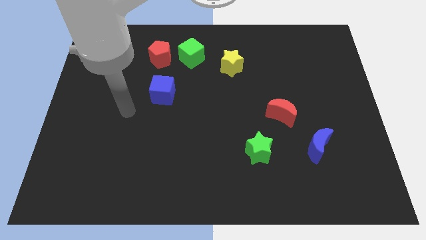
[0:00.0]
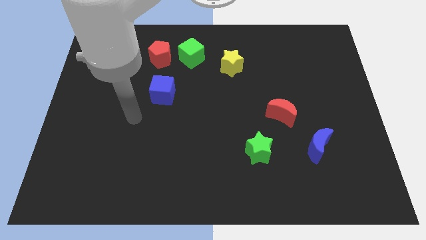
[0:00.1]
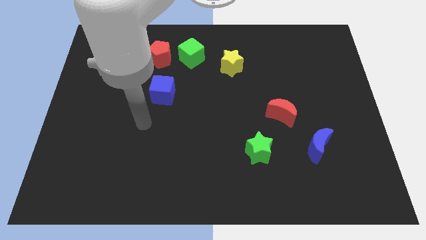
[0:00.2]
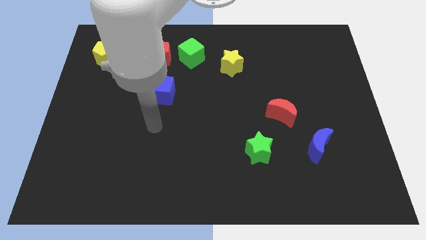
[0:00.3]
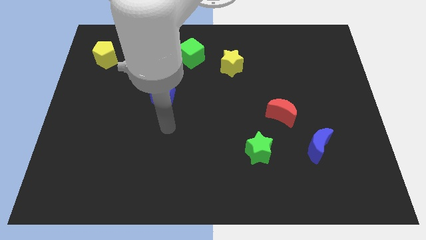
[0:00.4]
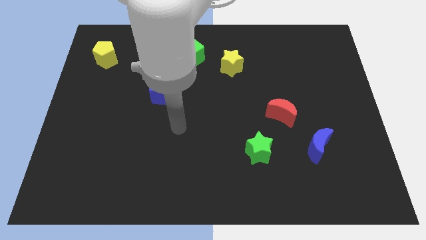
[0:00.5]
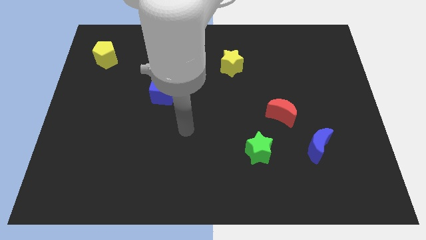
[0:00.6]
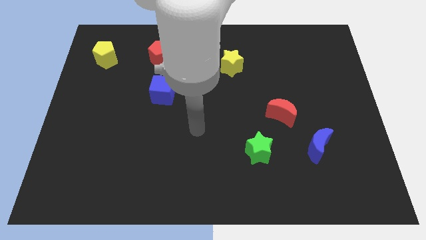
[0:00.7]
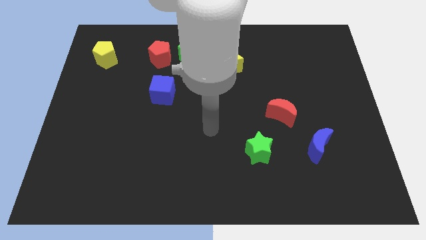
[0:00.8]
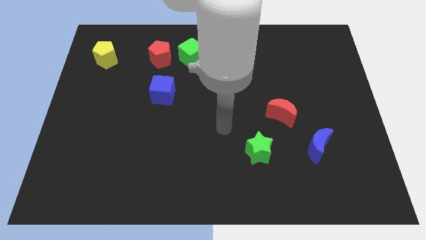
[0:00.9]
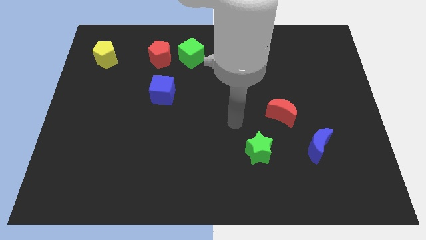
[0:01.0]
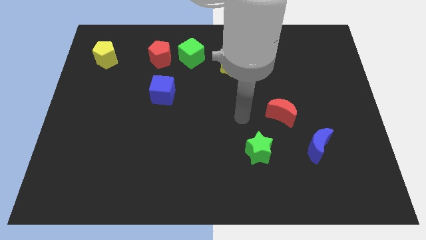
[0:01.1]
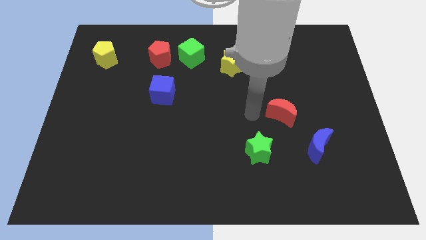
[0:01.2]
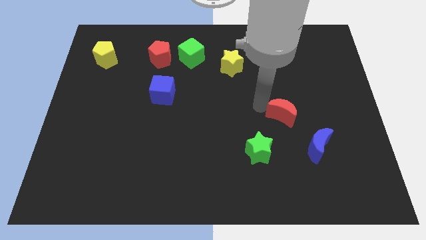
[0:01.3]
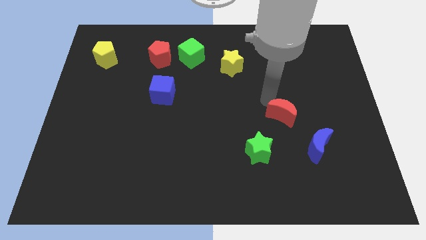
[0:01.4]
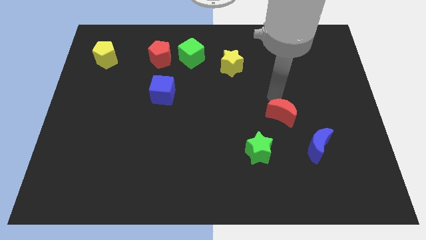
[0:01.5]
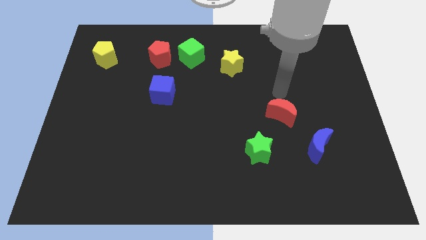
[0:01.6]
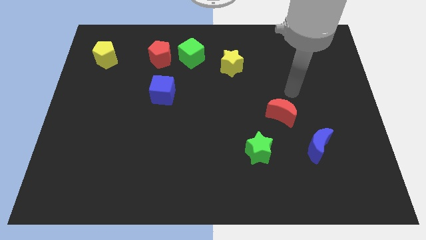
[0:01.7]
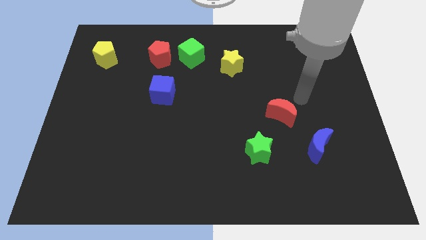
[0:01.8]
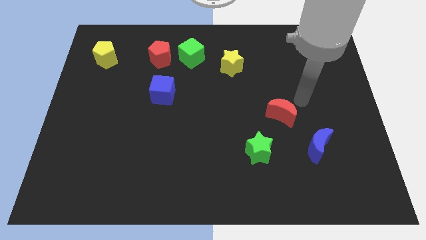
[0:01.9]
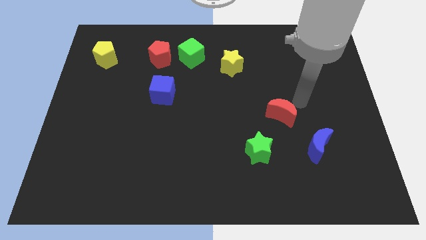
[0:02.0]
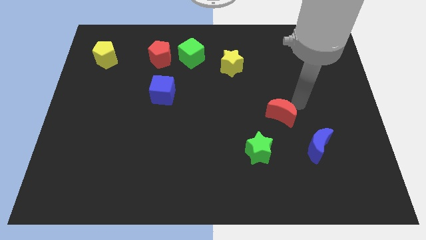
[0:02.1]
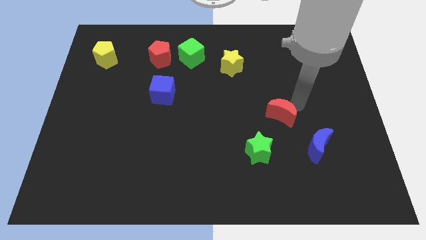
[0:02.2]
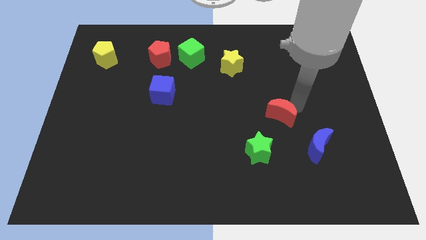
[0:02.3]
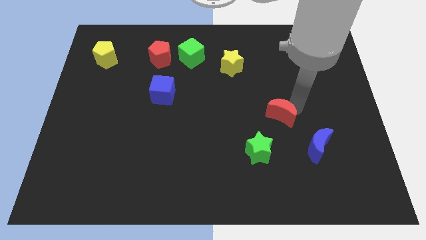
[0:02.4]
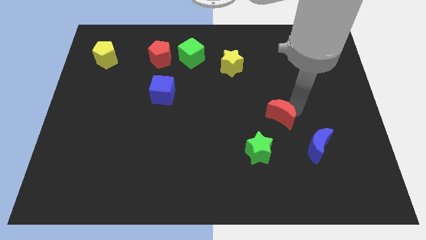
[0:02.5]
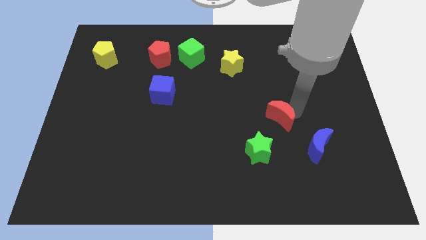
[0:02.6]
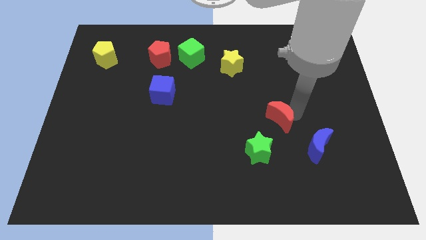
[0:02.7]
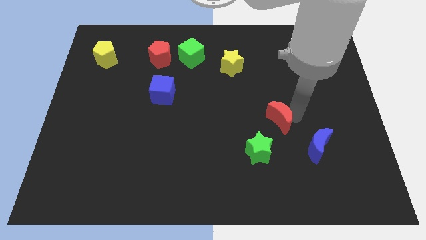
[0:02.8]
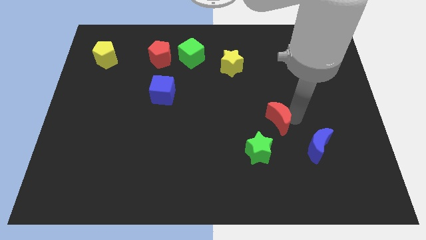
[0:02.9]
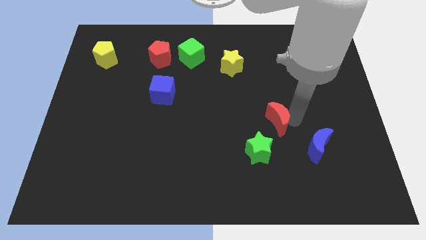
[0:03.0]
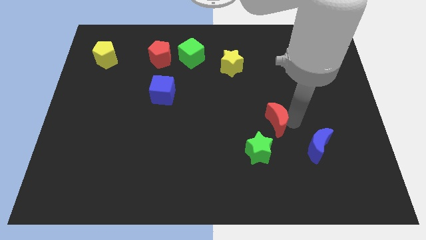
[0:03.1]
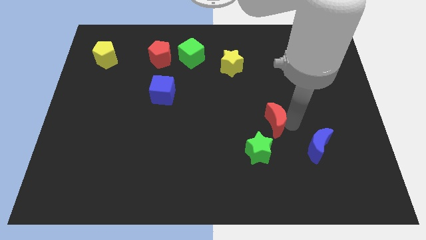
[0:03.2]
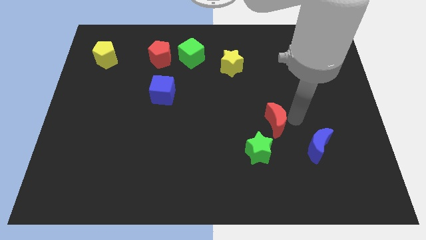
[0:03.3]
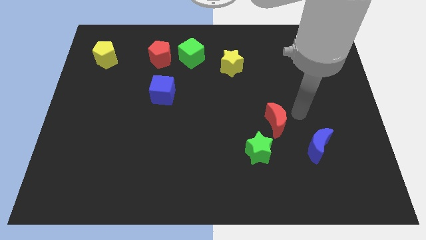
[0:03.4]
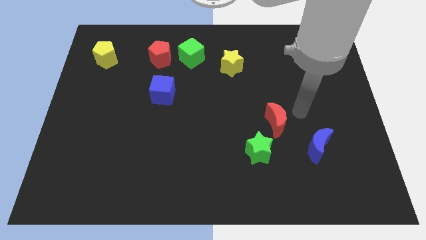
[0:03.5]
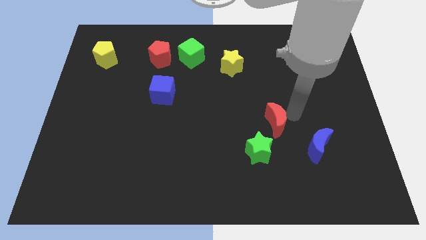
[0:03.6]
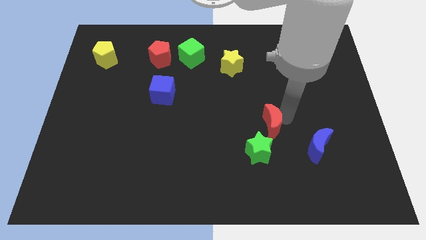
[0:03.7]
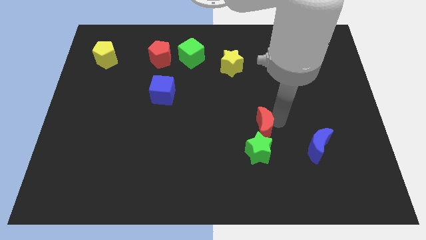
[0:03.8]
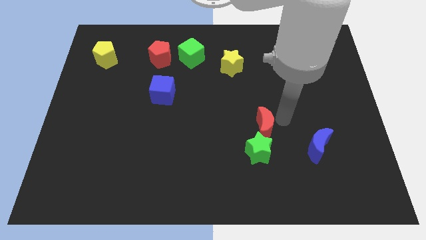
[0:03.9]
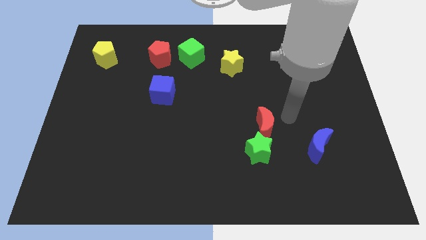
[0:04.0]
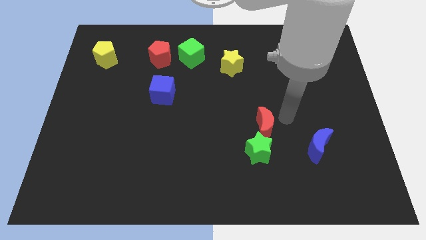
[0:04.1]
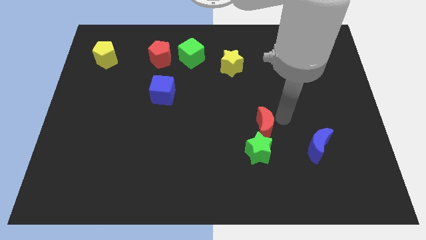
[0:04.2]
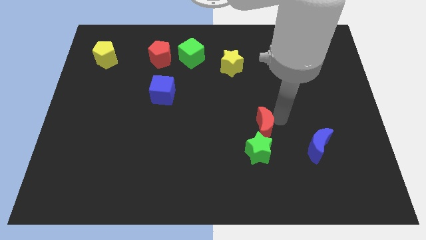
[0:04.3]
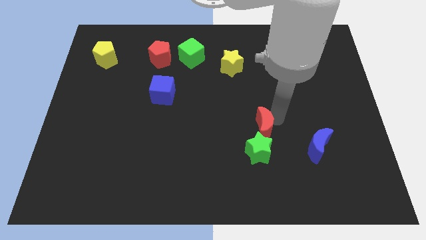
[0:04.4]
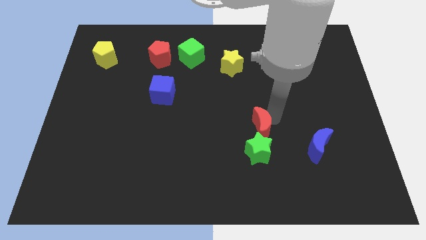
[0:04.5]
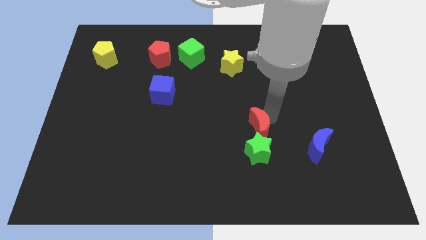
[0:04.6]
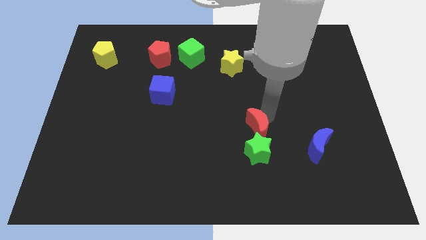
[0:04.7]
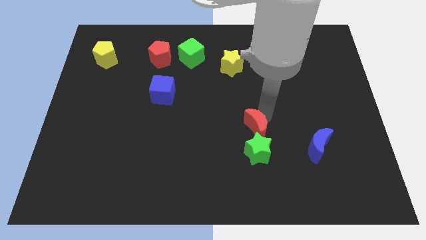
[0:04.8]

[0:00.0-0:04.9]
push the red moon diagonally downwards and to the left somewhat

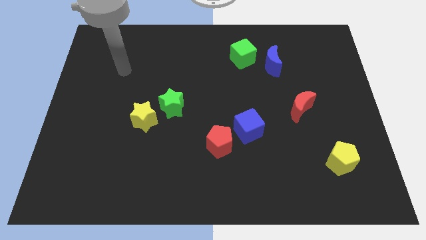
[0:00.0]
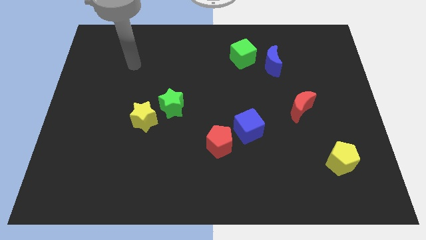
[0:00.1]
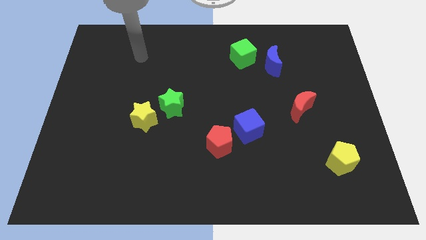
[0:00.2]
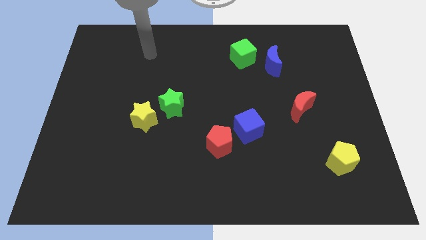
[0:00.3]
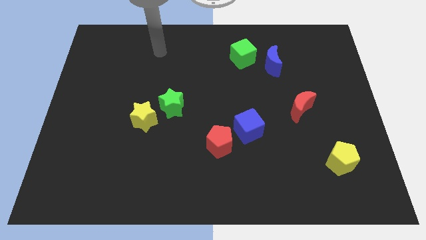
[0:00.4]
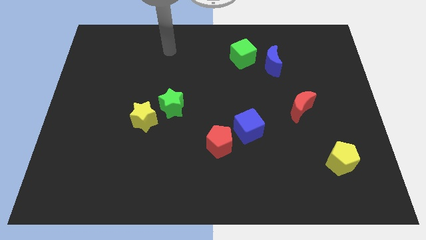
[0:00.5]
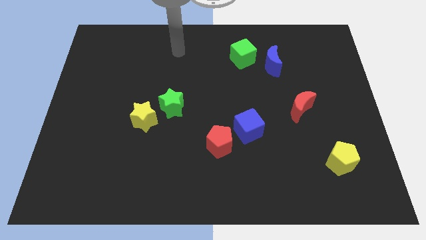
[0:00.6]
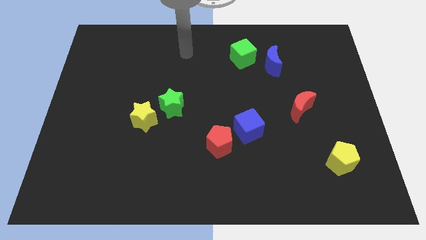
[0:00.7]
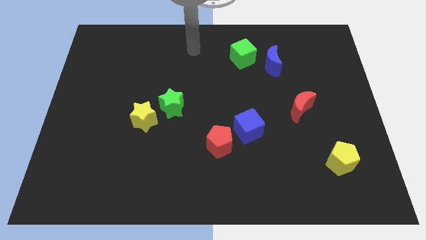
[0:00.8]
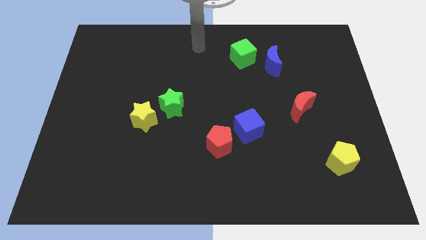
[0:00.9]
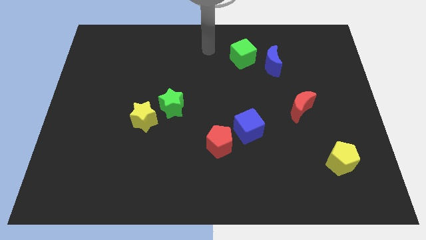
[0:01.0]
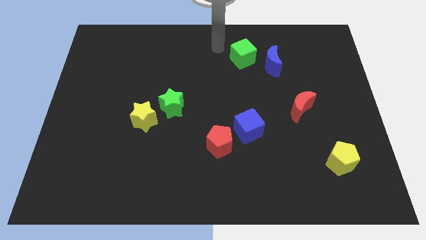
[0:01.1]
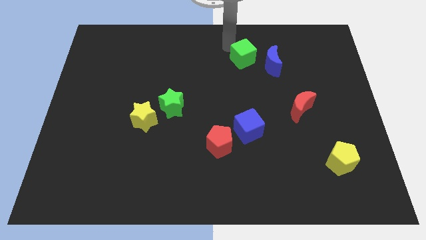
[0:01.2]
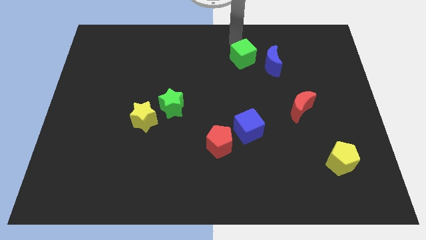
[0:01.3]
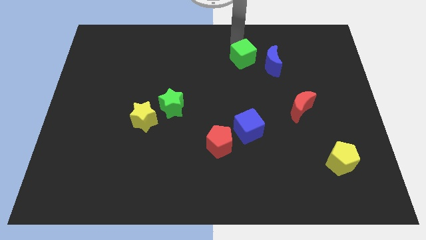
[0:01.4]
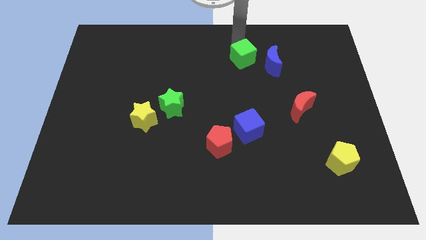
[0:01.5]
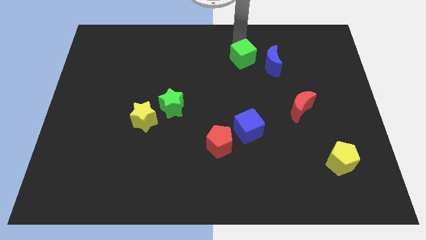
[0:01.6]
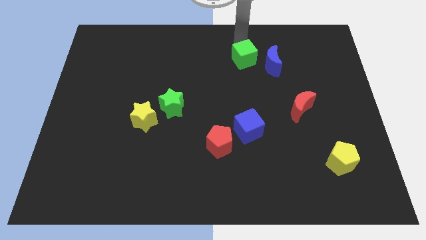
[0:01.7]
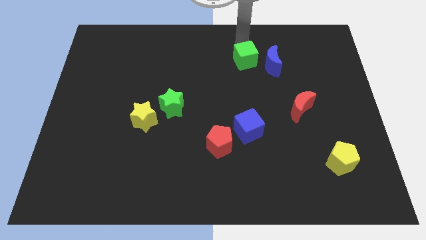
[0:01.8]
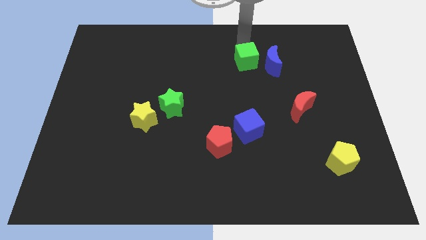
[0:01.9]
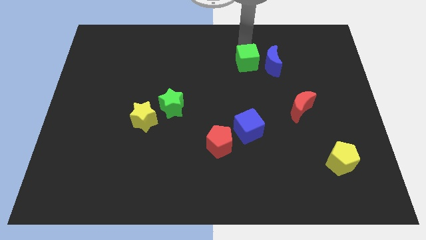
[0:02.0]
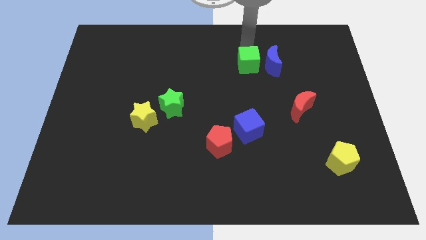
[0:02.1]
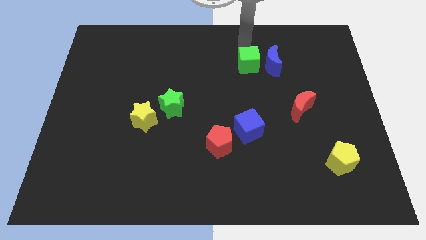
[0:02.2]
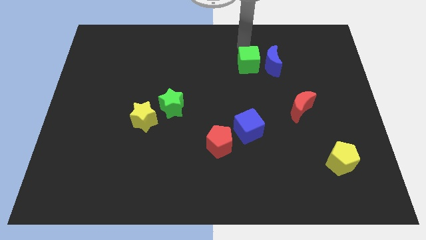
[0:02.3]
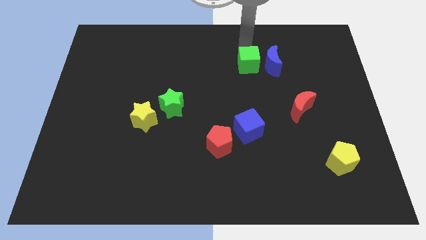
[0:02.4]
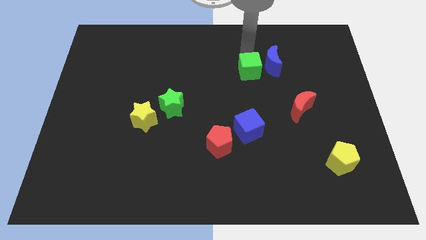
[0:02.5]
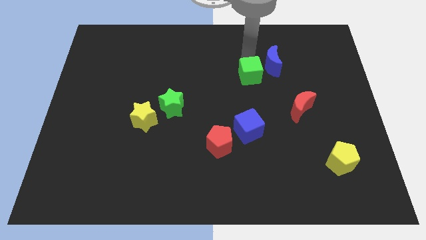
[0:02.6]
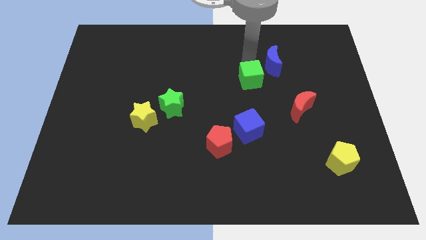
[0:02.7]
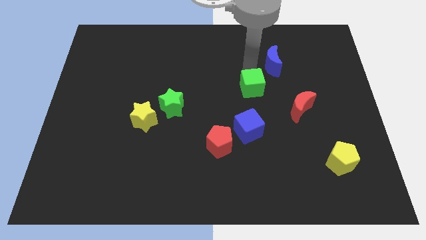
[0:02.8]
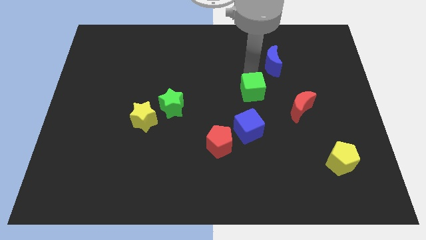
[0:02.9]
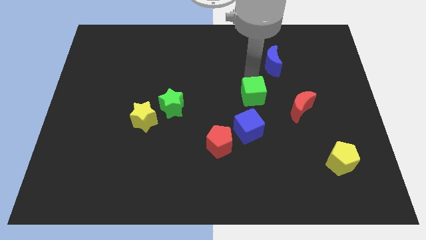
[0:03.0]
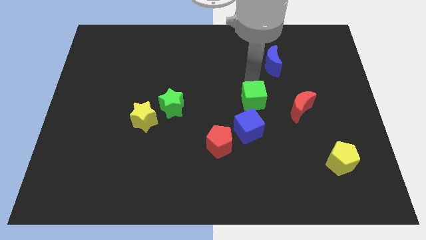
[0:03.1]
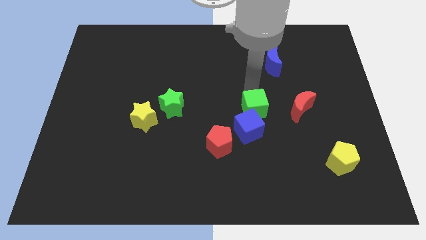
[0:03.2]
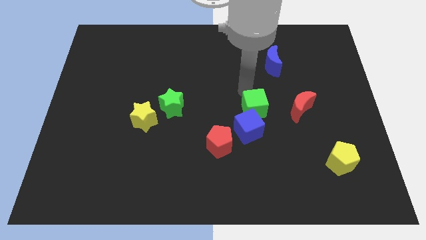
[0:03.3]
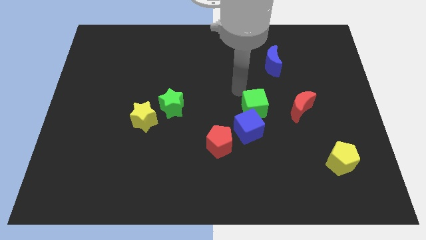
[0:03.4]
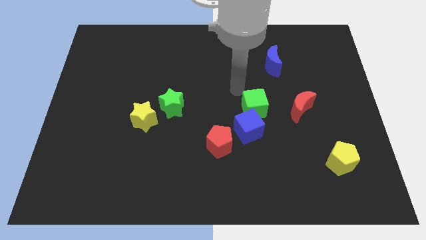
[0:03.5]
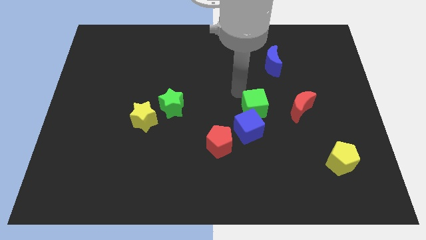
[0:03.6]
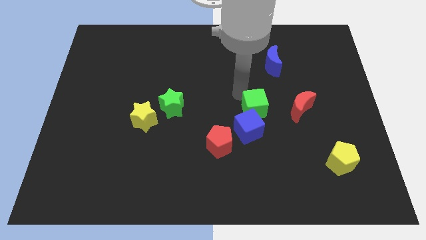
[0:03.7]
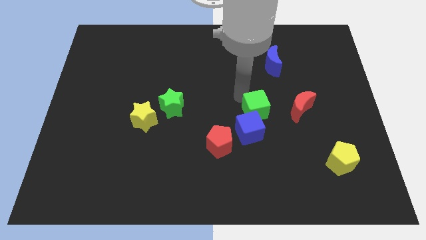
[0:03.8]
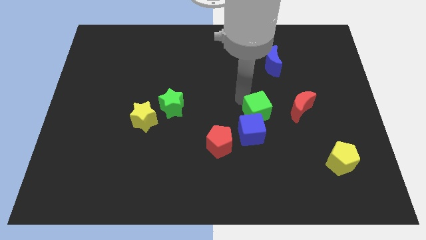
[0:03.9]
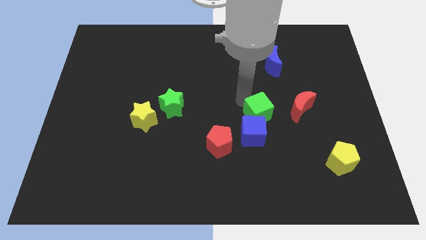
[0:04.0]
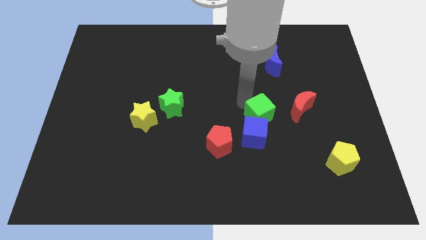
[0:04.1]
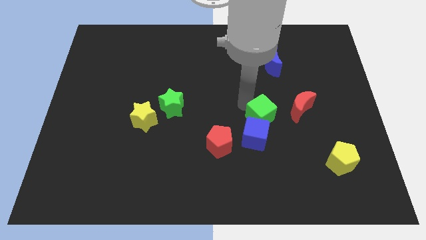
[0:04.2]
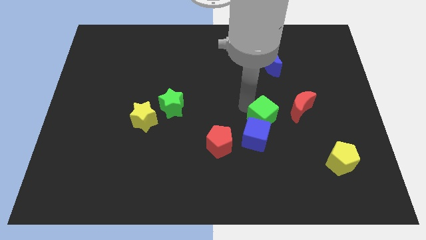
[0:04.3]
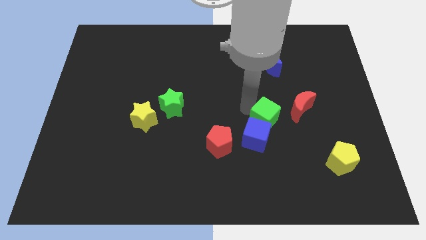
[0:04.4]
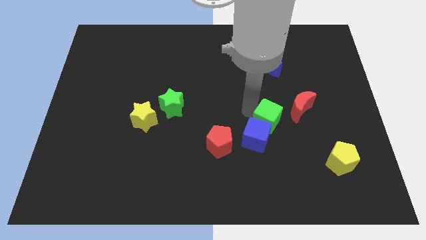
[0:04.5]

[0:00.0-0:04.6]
move the green cube down
